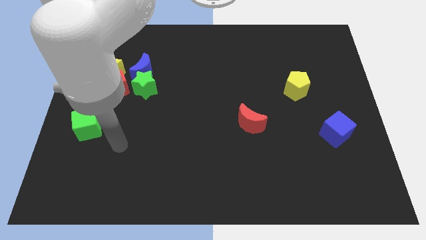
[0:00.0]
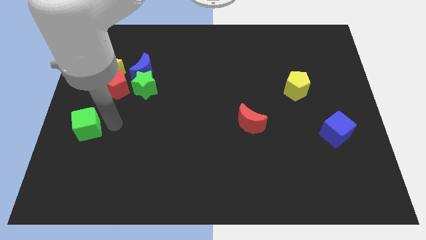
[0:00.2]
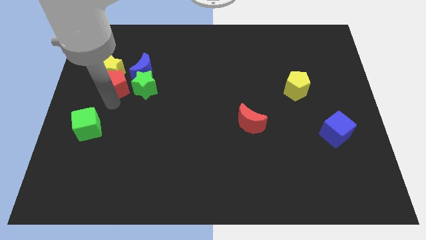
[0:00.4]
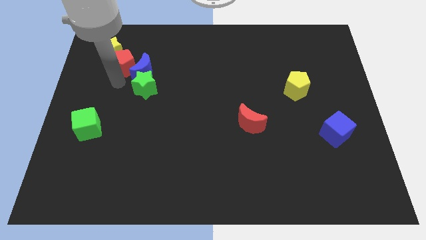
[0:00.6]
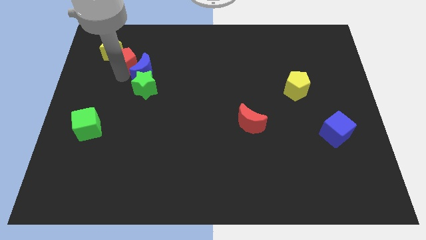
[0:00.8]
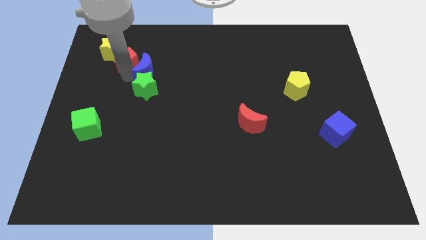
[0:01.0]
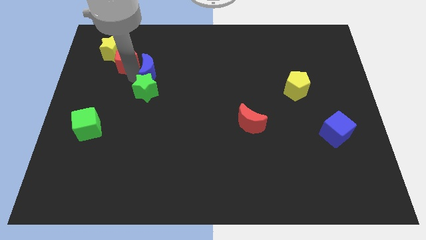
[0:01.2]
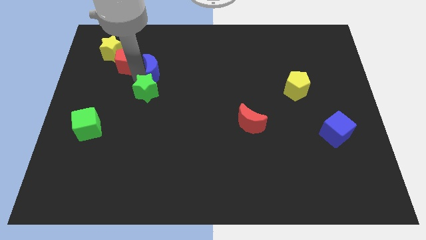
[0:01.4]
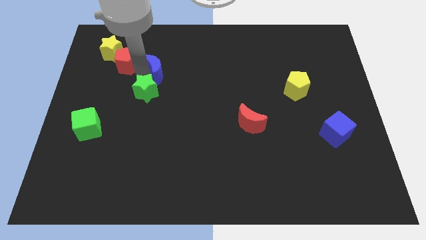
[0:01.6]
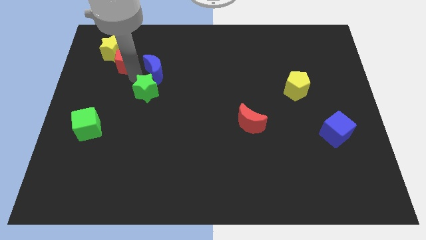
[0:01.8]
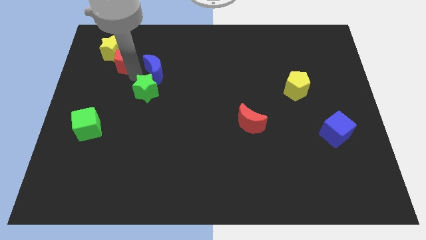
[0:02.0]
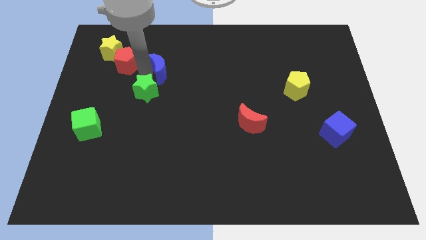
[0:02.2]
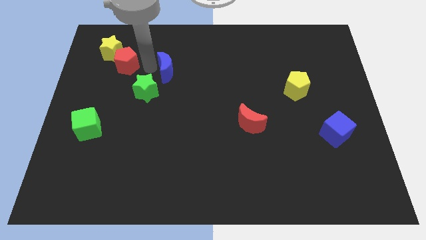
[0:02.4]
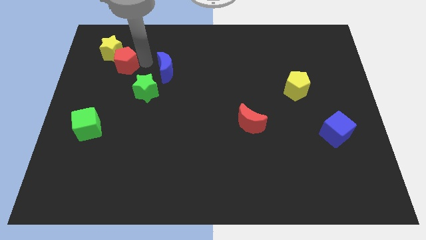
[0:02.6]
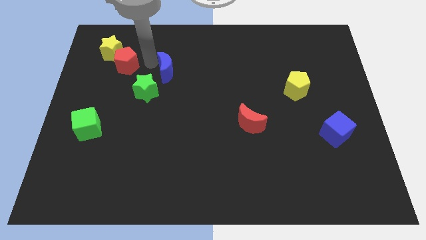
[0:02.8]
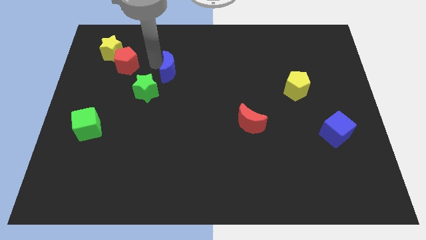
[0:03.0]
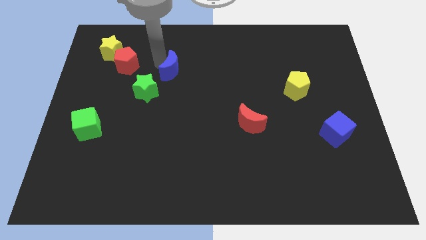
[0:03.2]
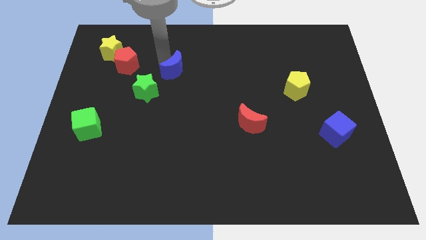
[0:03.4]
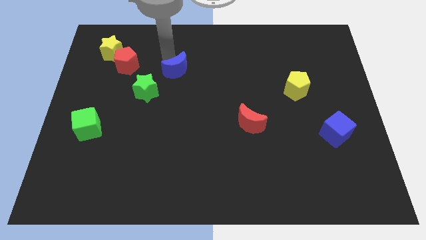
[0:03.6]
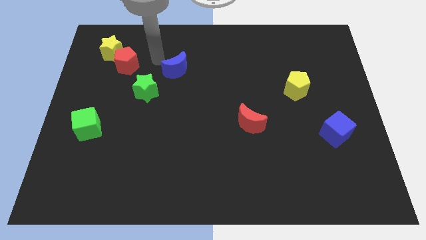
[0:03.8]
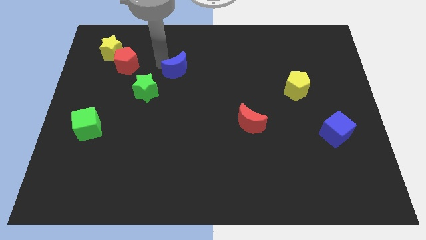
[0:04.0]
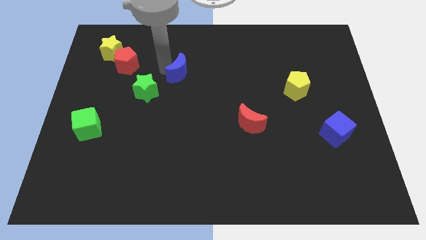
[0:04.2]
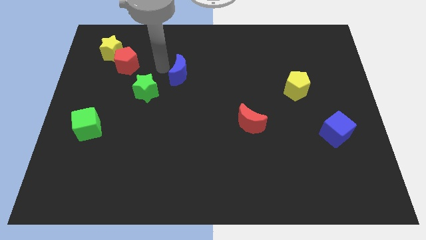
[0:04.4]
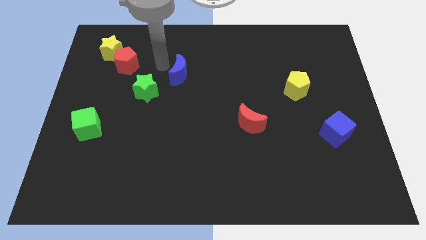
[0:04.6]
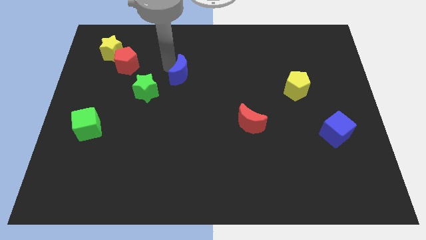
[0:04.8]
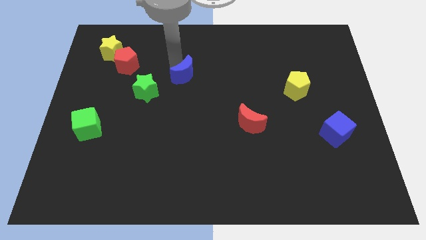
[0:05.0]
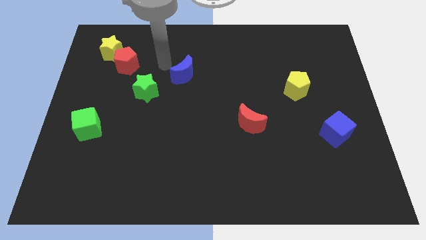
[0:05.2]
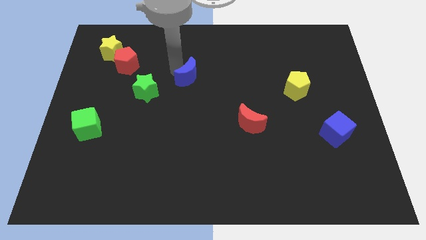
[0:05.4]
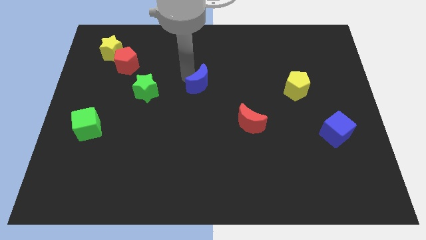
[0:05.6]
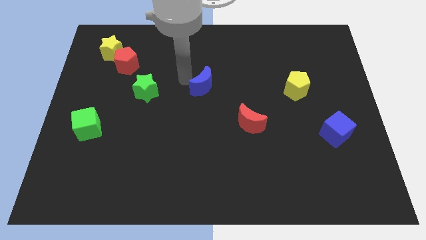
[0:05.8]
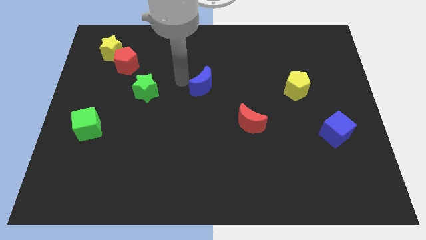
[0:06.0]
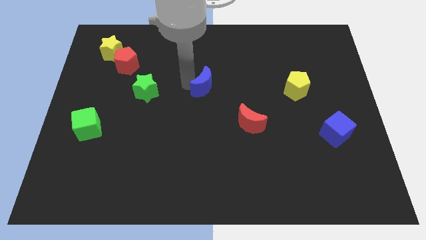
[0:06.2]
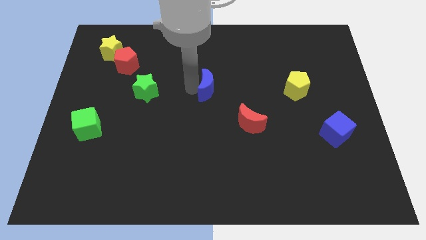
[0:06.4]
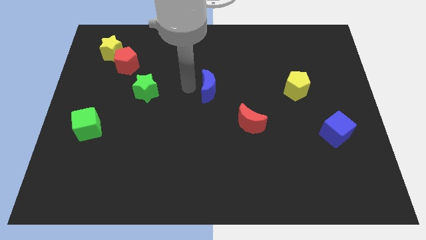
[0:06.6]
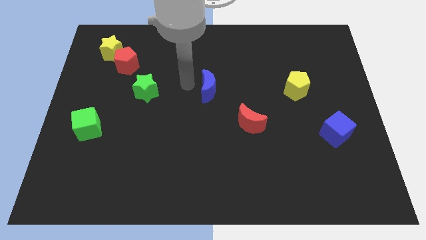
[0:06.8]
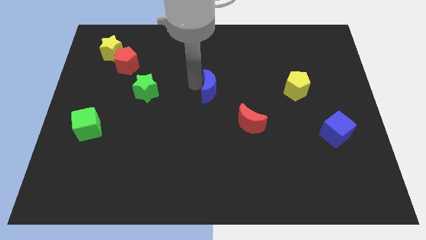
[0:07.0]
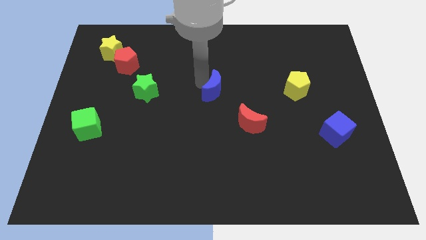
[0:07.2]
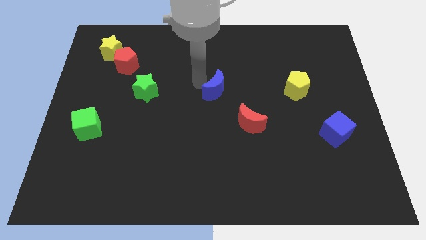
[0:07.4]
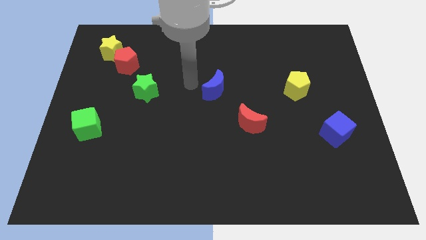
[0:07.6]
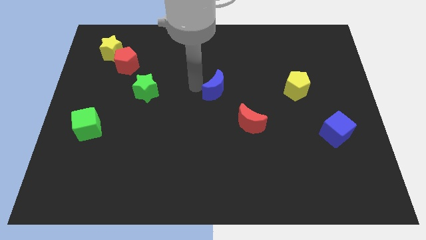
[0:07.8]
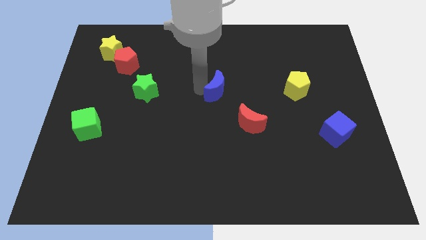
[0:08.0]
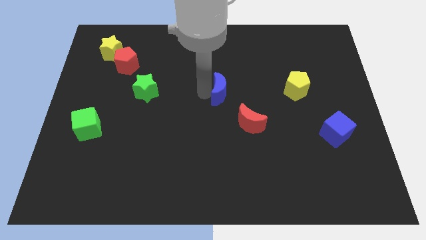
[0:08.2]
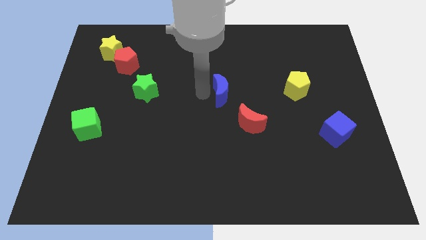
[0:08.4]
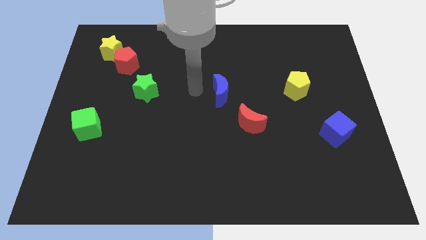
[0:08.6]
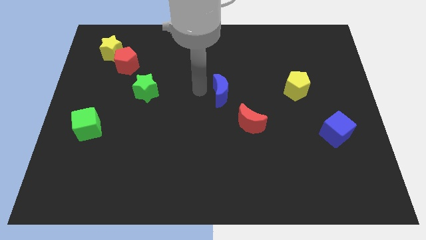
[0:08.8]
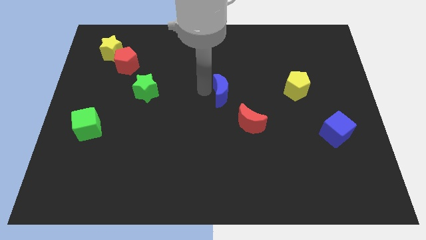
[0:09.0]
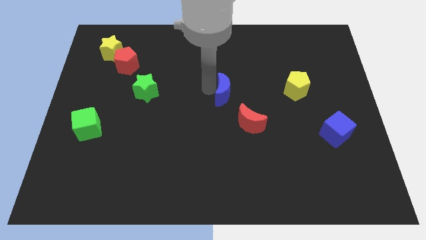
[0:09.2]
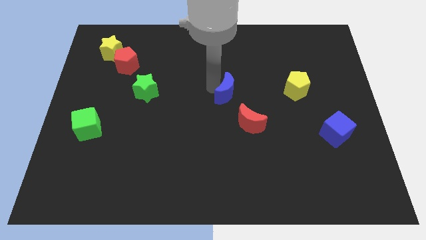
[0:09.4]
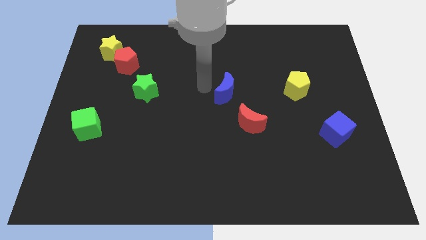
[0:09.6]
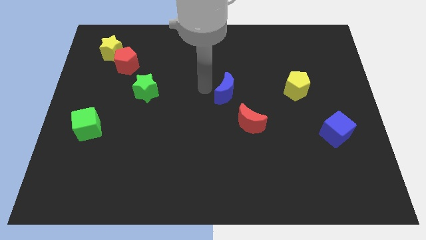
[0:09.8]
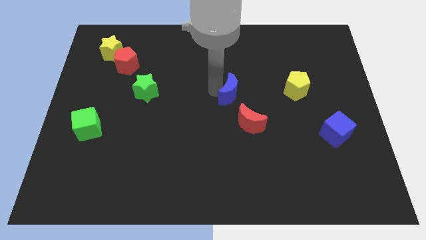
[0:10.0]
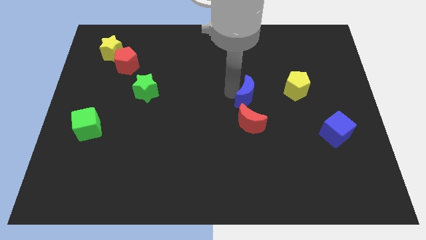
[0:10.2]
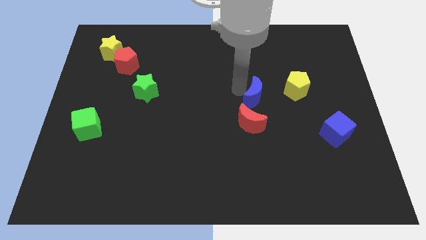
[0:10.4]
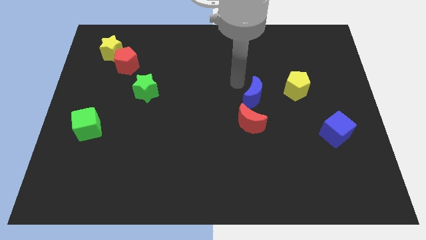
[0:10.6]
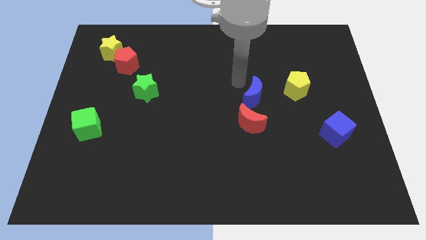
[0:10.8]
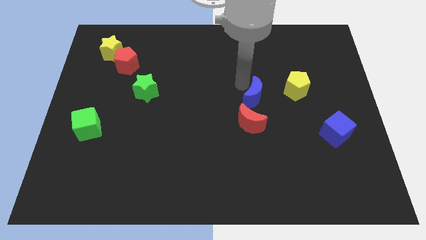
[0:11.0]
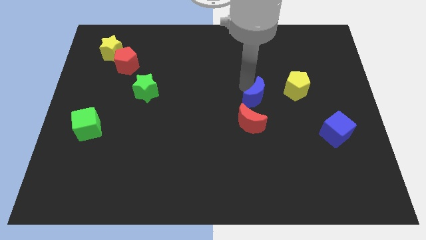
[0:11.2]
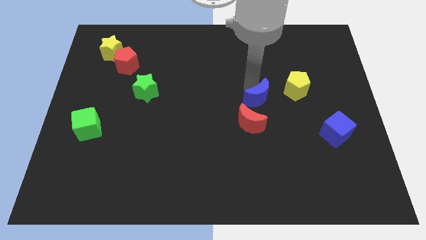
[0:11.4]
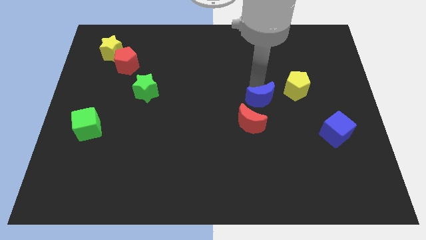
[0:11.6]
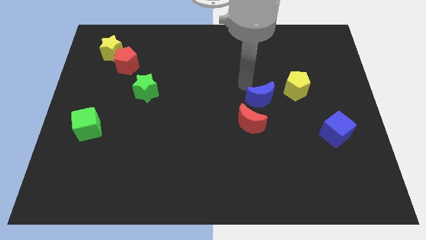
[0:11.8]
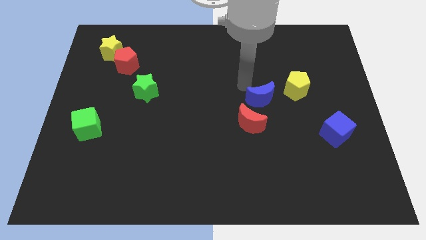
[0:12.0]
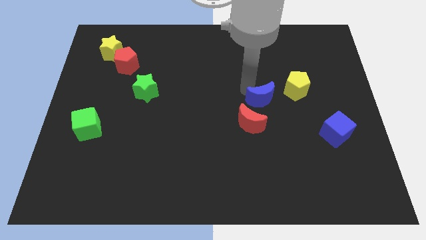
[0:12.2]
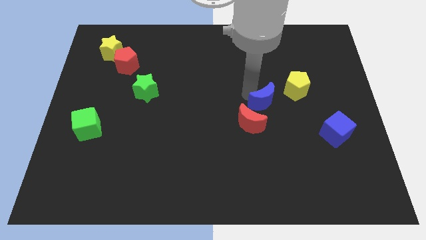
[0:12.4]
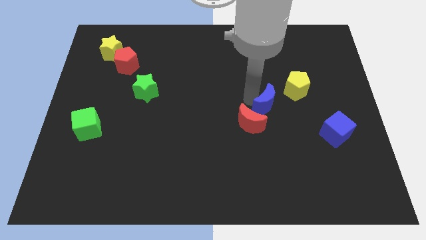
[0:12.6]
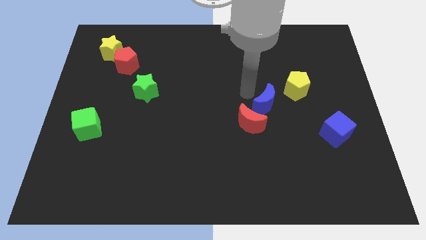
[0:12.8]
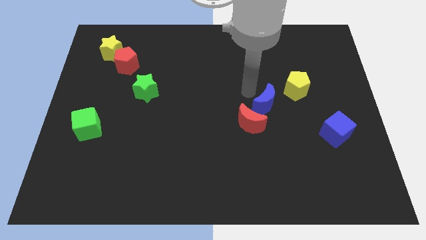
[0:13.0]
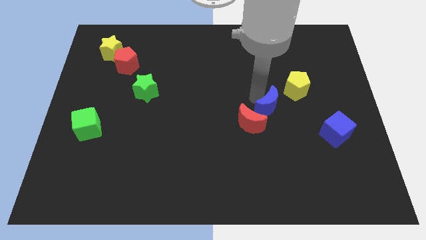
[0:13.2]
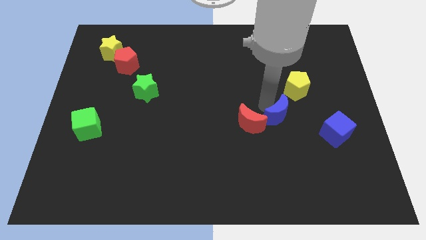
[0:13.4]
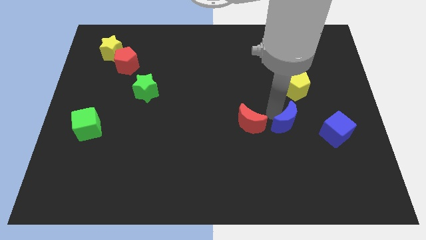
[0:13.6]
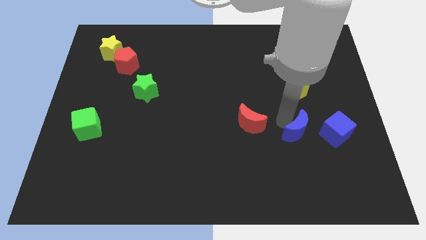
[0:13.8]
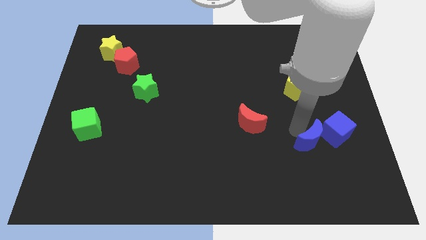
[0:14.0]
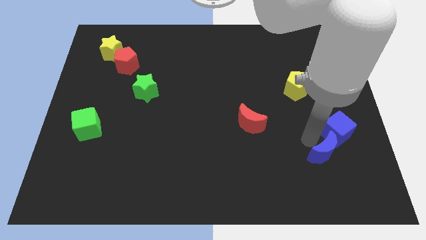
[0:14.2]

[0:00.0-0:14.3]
push the blue moon to the bottom of the blue cube

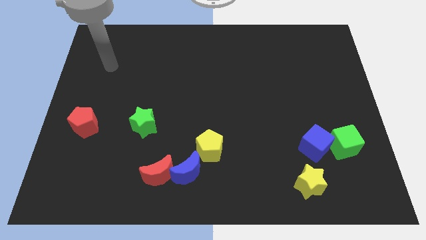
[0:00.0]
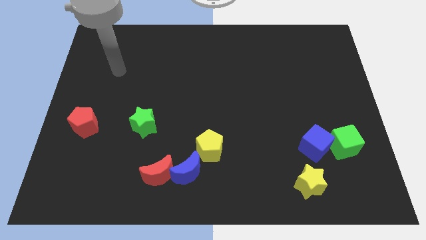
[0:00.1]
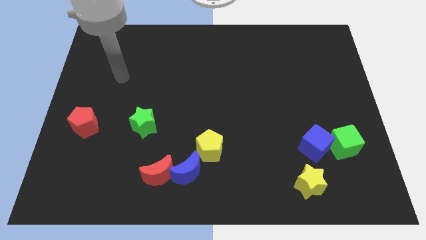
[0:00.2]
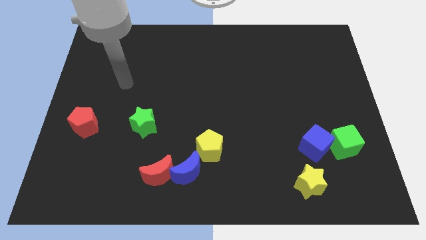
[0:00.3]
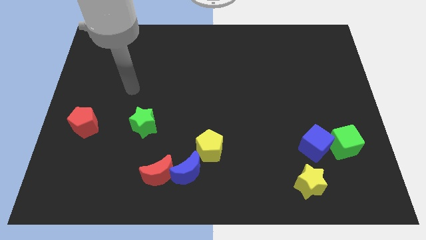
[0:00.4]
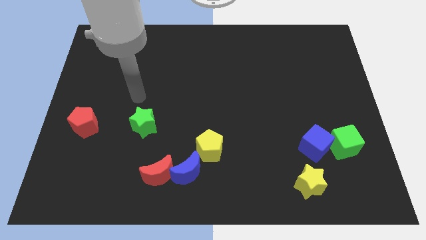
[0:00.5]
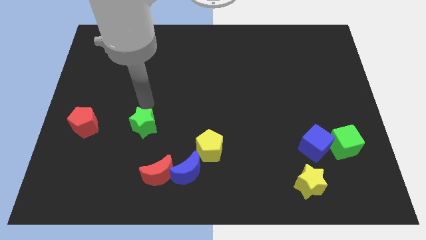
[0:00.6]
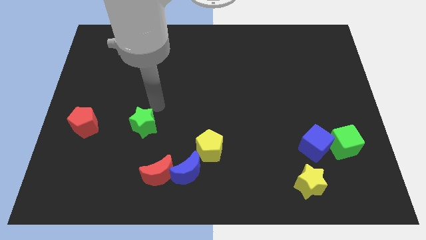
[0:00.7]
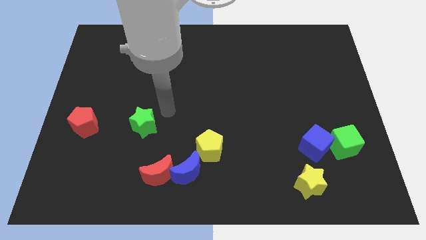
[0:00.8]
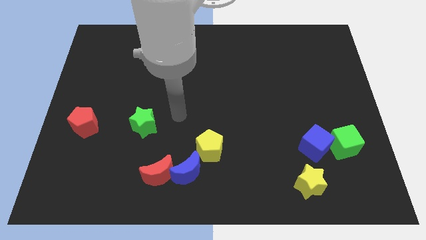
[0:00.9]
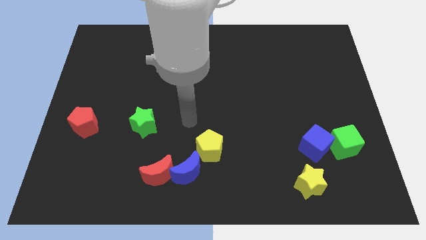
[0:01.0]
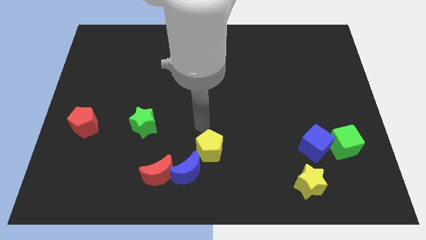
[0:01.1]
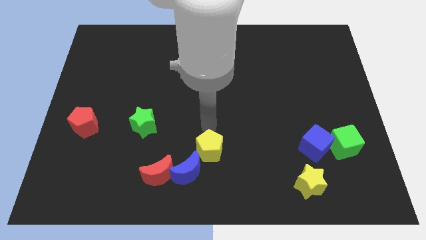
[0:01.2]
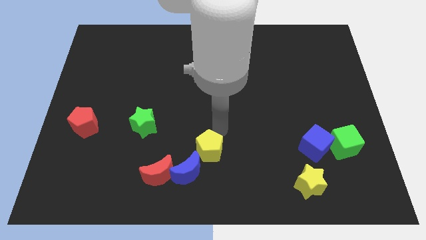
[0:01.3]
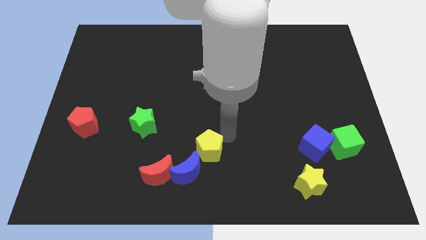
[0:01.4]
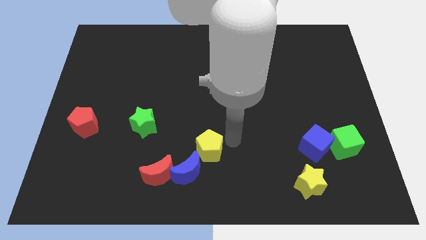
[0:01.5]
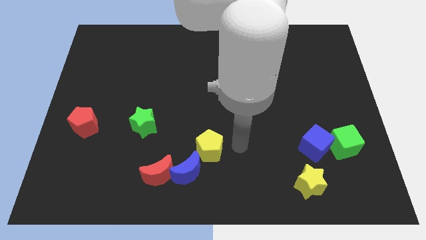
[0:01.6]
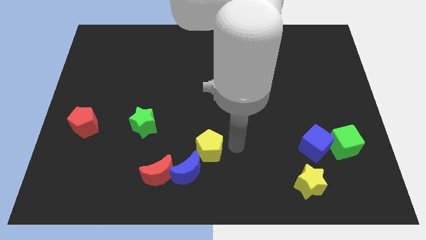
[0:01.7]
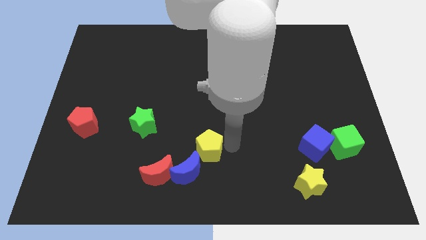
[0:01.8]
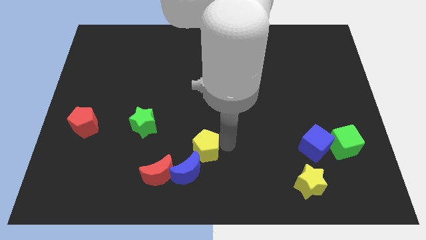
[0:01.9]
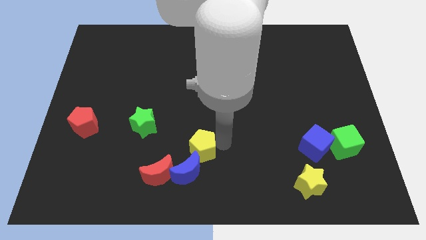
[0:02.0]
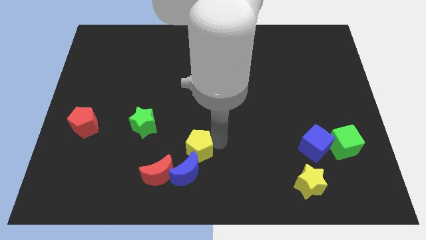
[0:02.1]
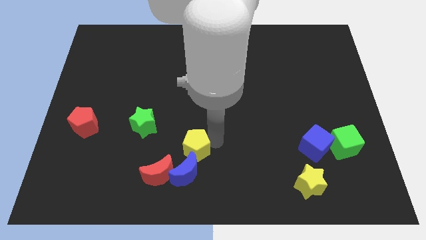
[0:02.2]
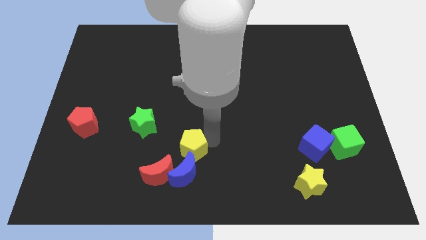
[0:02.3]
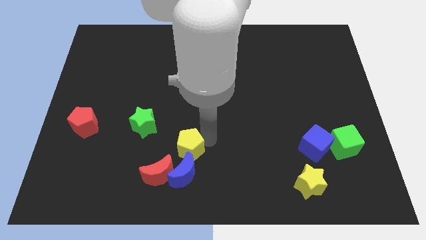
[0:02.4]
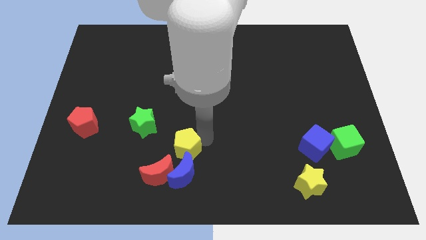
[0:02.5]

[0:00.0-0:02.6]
push the yellow pentagon to the top left side of the blue moon
